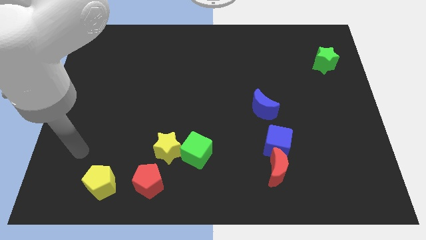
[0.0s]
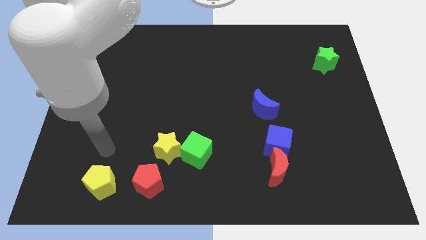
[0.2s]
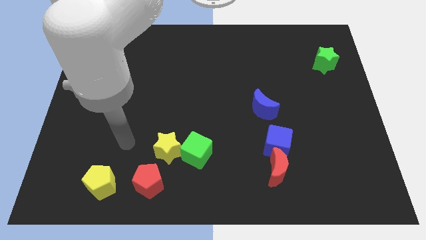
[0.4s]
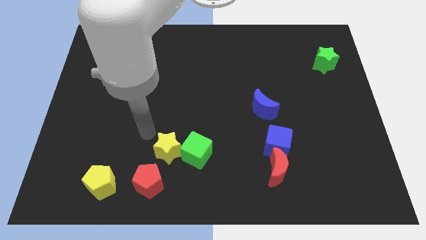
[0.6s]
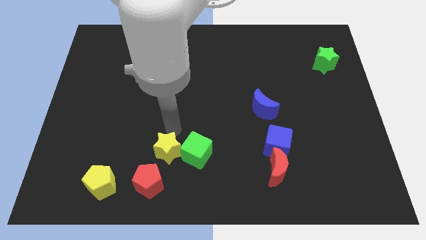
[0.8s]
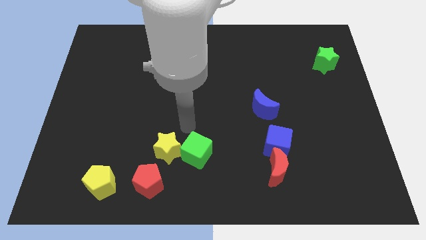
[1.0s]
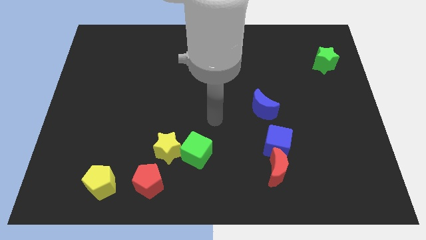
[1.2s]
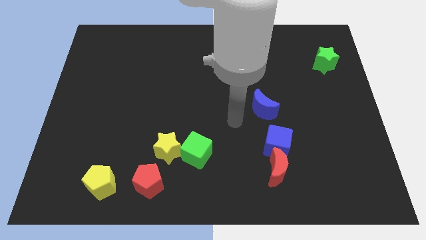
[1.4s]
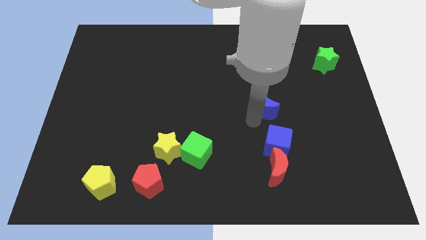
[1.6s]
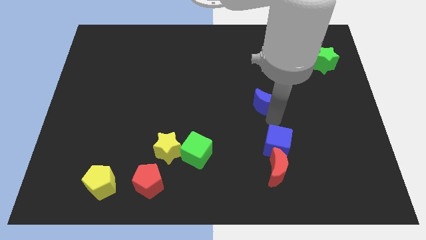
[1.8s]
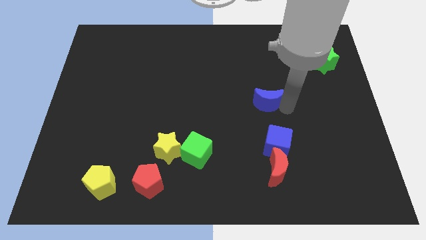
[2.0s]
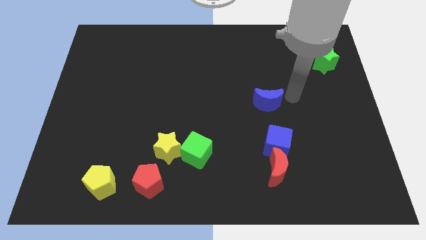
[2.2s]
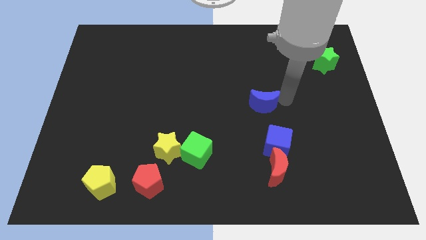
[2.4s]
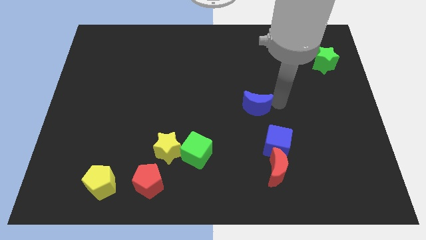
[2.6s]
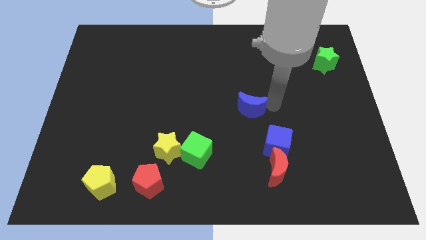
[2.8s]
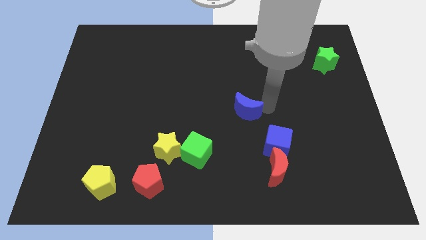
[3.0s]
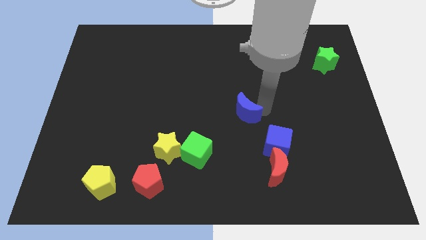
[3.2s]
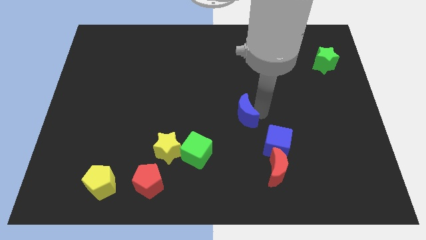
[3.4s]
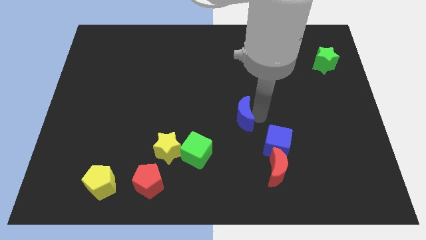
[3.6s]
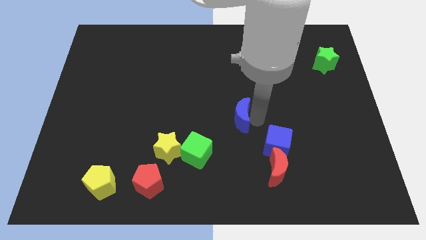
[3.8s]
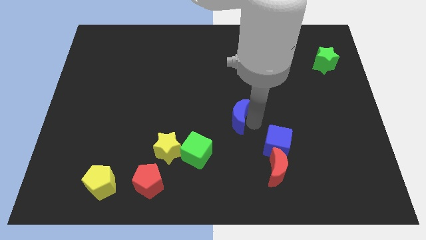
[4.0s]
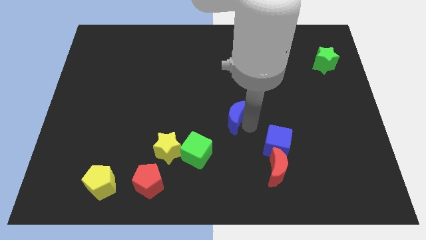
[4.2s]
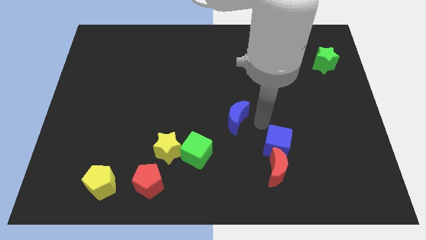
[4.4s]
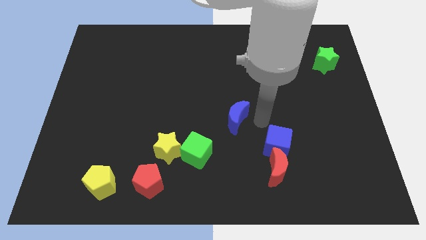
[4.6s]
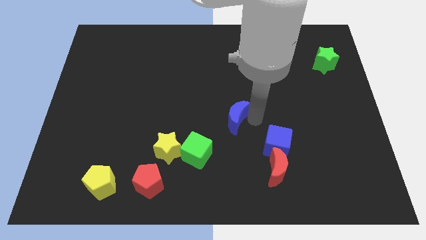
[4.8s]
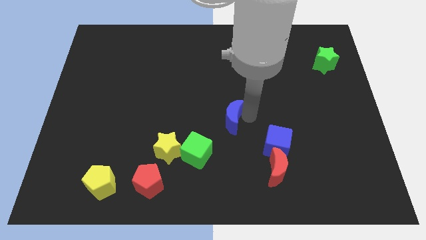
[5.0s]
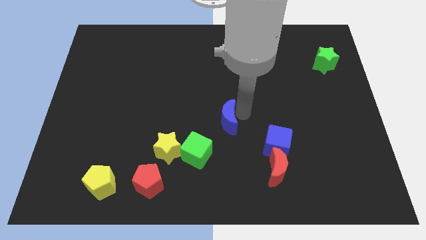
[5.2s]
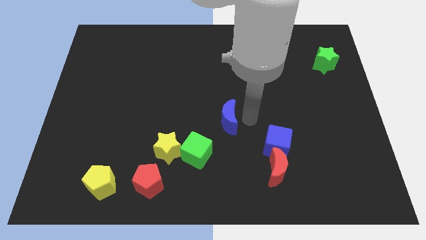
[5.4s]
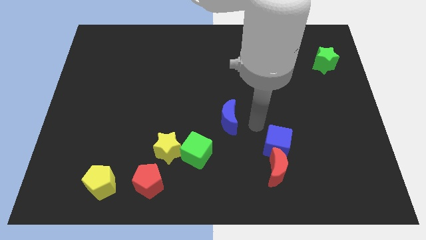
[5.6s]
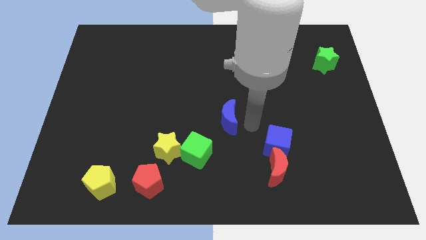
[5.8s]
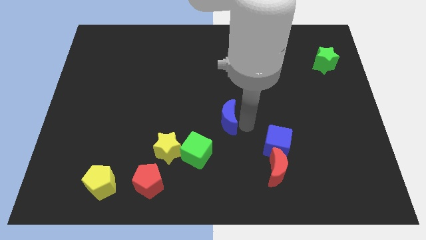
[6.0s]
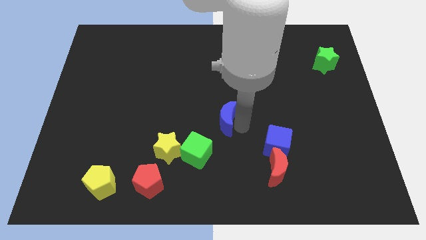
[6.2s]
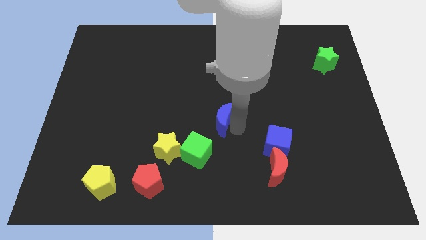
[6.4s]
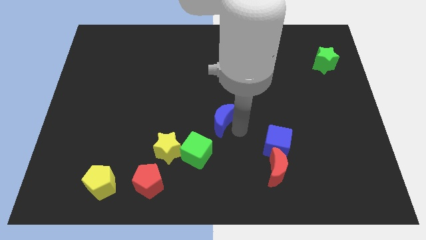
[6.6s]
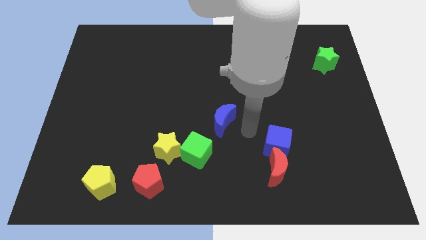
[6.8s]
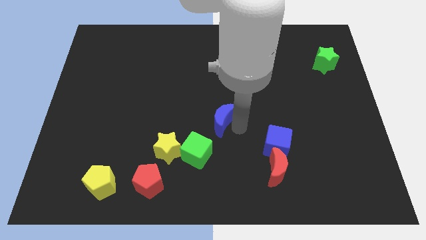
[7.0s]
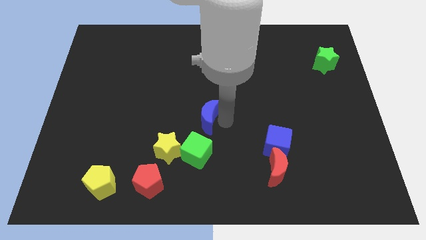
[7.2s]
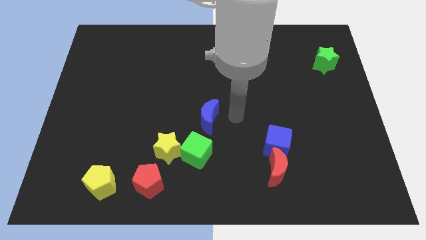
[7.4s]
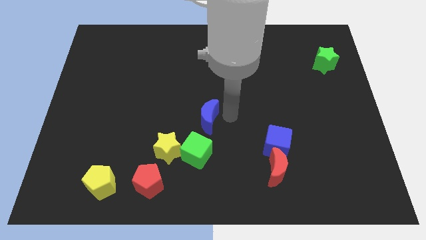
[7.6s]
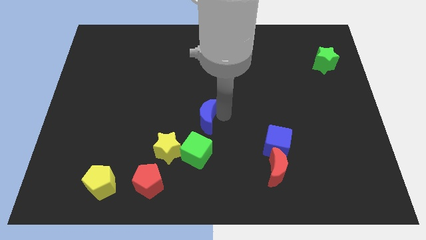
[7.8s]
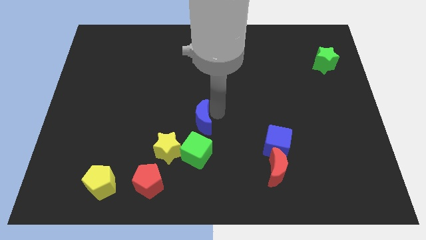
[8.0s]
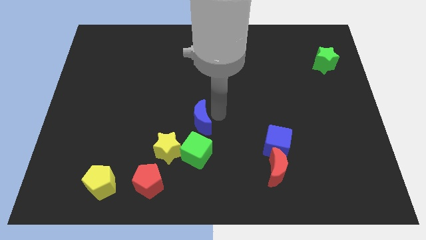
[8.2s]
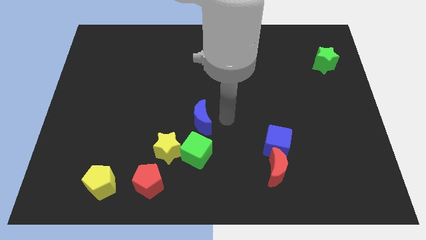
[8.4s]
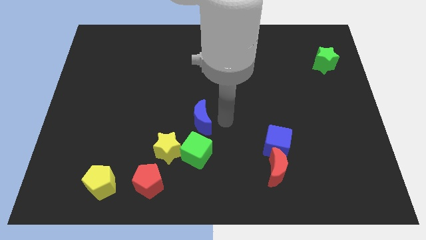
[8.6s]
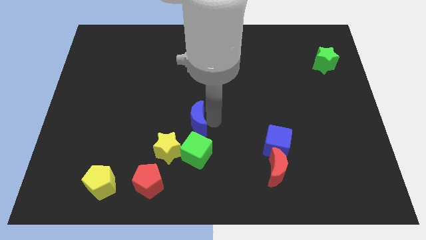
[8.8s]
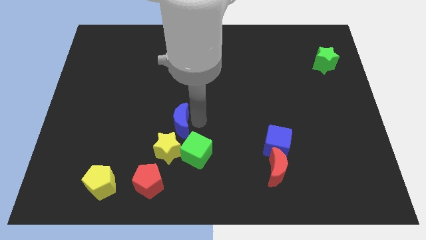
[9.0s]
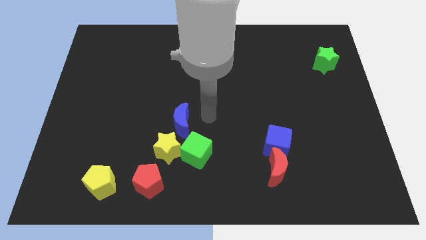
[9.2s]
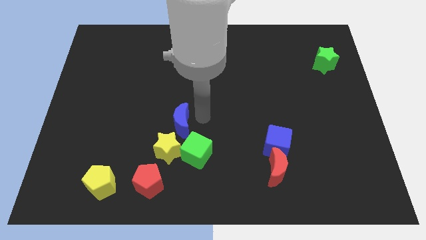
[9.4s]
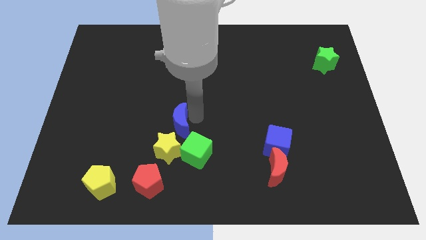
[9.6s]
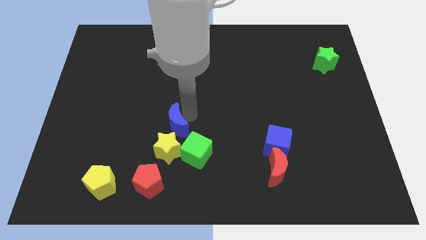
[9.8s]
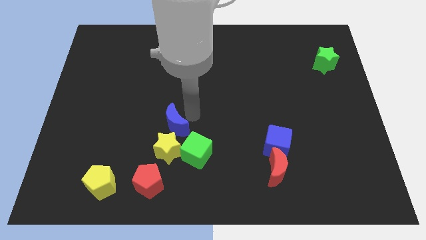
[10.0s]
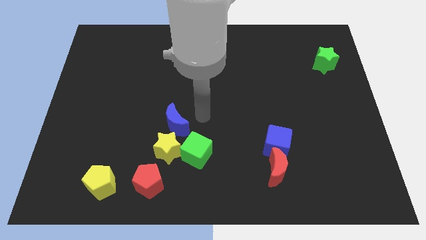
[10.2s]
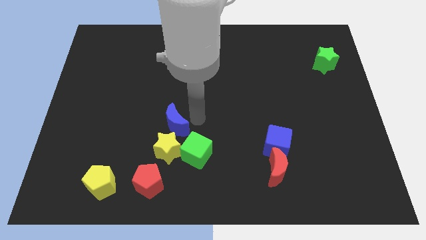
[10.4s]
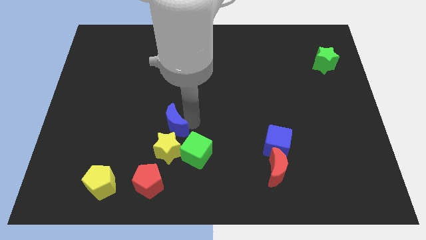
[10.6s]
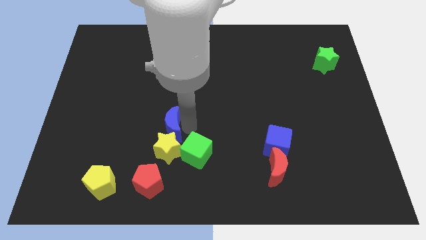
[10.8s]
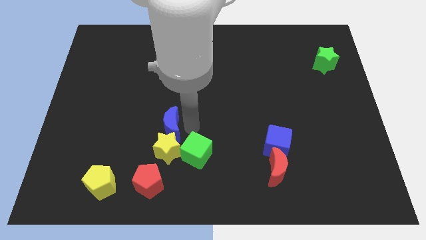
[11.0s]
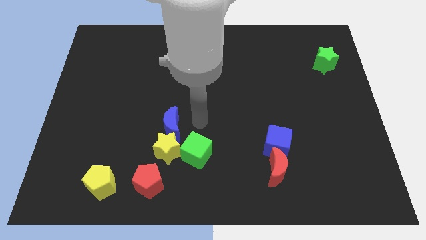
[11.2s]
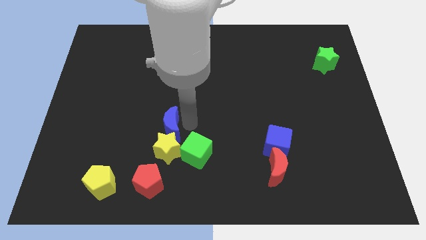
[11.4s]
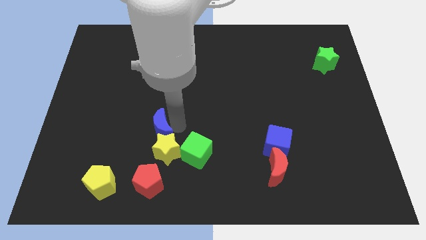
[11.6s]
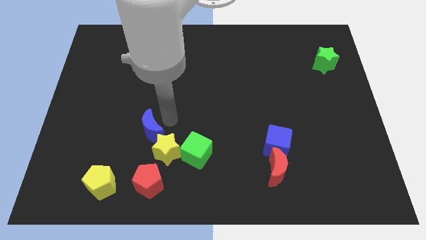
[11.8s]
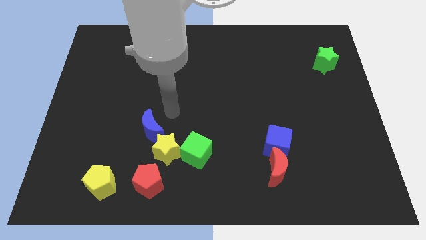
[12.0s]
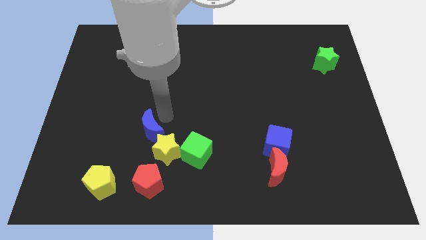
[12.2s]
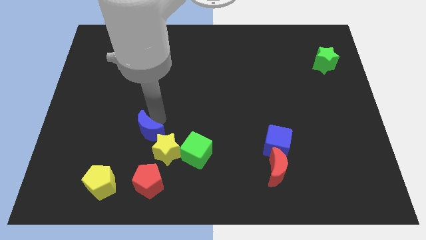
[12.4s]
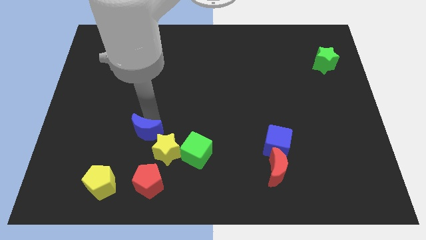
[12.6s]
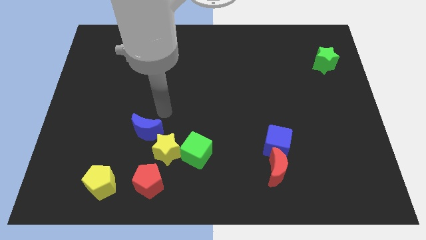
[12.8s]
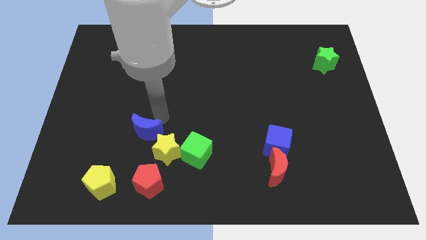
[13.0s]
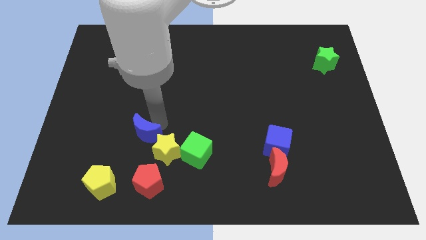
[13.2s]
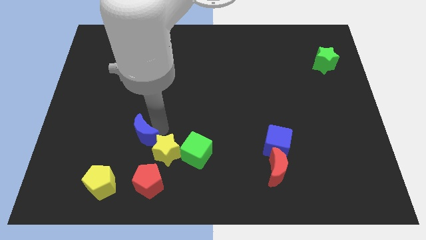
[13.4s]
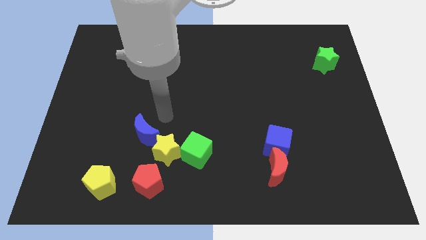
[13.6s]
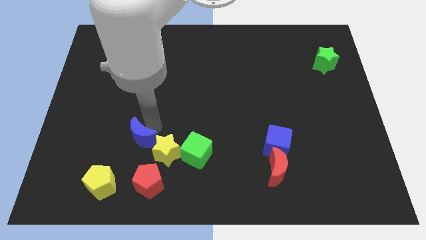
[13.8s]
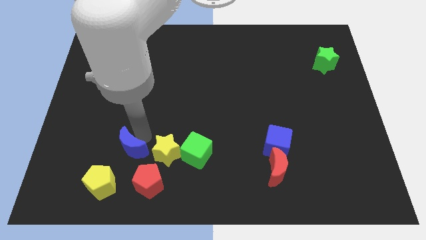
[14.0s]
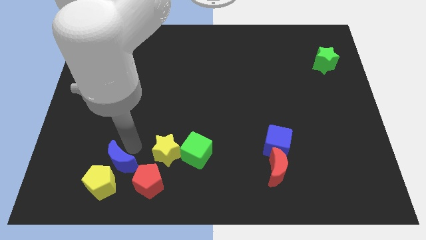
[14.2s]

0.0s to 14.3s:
put the blue moon towards the yellow pentagon
